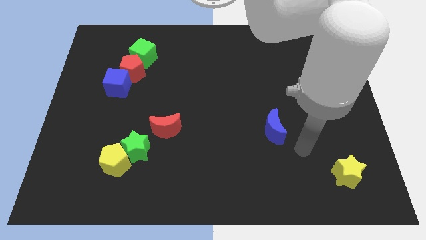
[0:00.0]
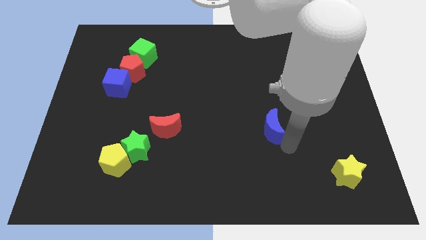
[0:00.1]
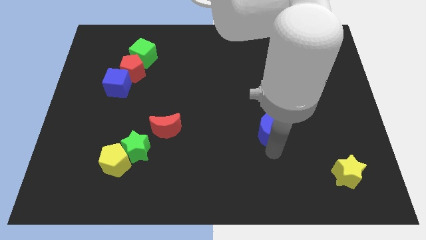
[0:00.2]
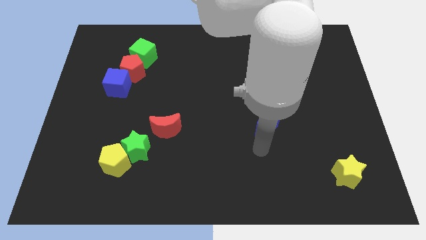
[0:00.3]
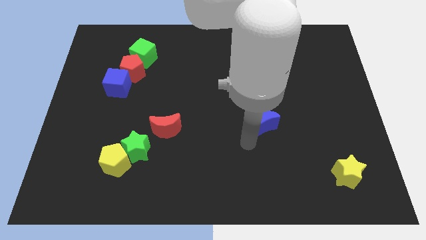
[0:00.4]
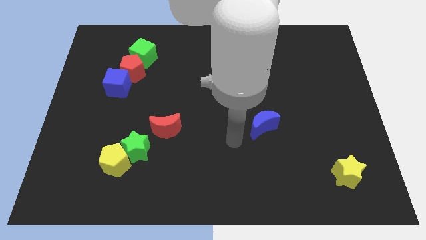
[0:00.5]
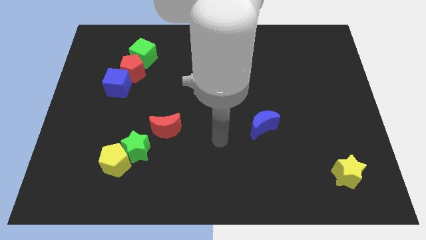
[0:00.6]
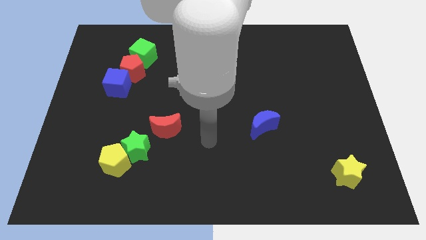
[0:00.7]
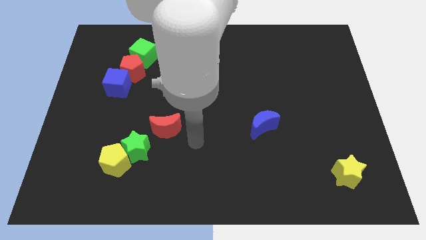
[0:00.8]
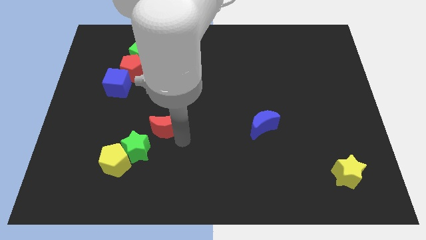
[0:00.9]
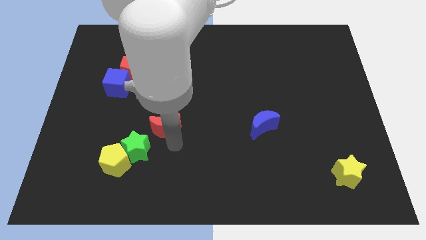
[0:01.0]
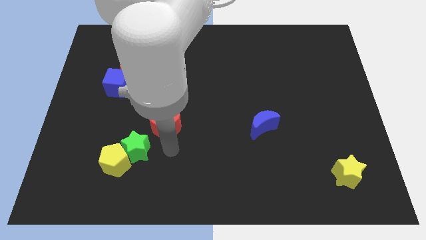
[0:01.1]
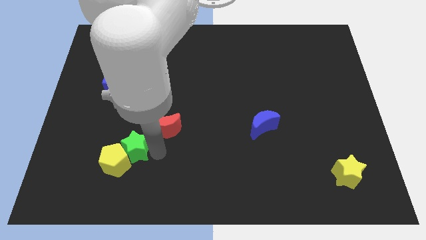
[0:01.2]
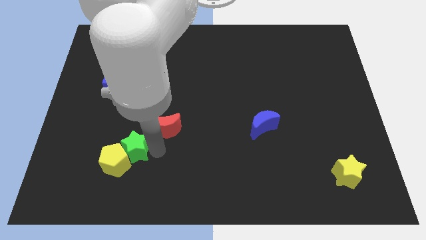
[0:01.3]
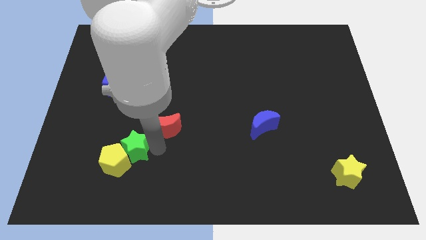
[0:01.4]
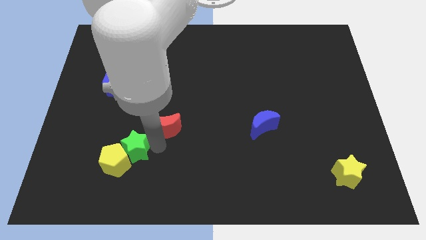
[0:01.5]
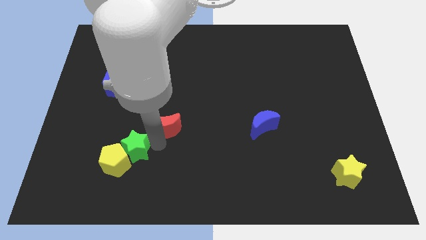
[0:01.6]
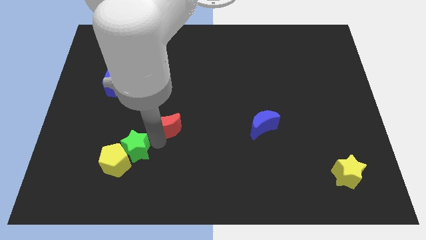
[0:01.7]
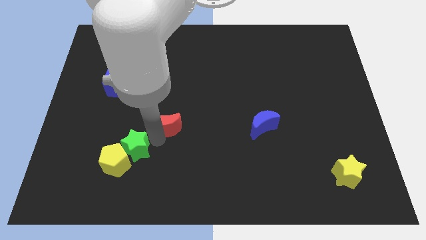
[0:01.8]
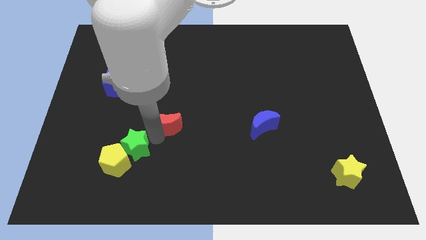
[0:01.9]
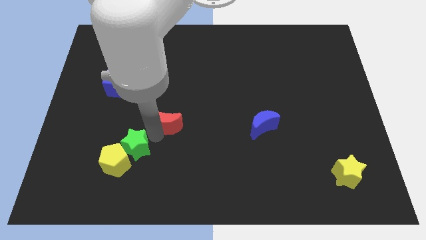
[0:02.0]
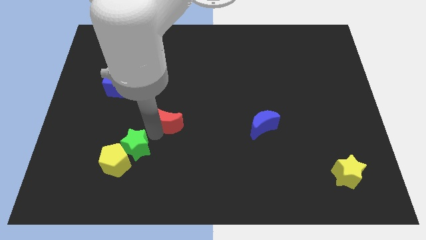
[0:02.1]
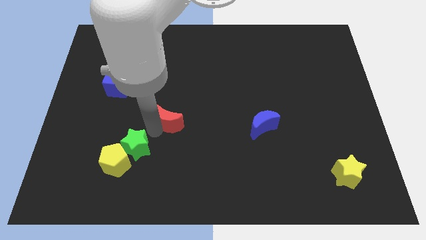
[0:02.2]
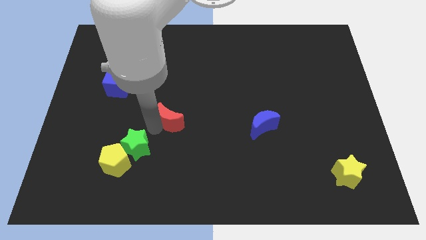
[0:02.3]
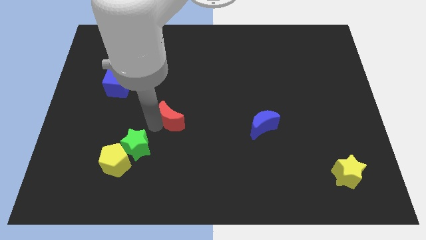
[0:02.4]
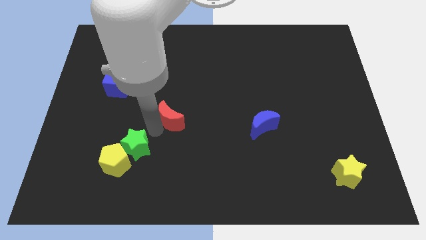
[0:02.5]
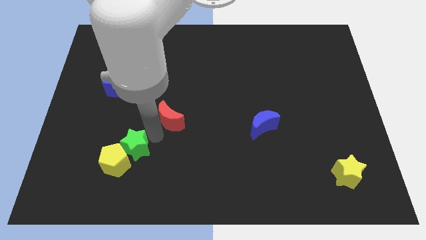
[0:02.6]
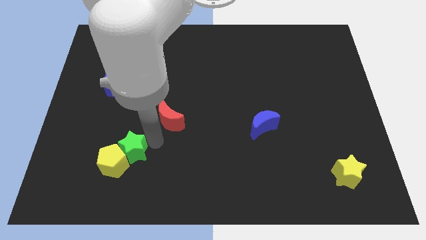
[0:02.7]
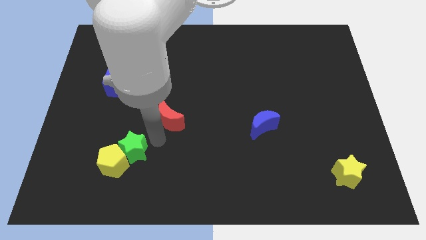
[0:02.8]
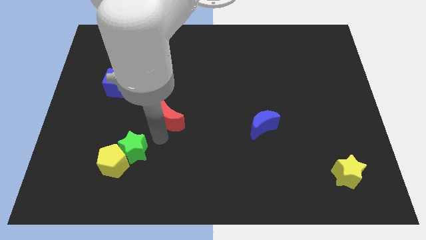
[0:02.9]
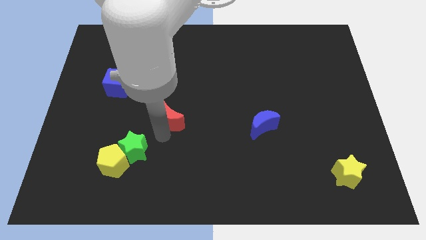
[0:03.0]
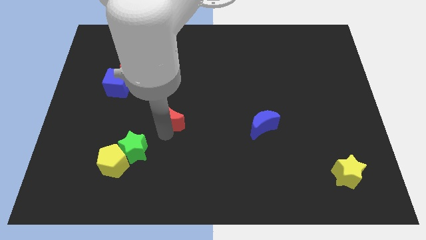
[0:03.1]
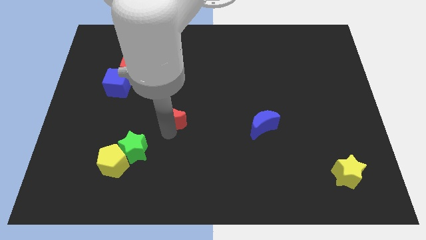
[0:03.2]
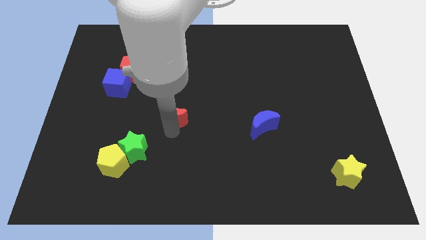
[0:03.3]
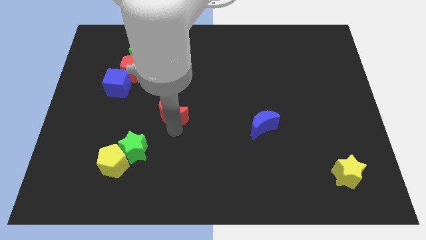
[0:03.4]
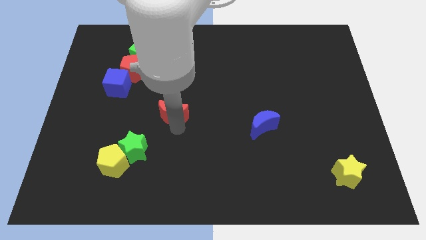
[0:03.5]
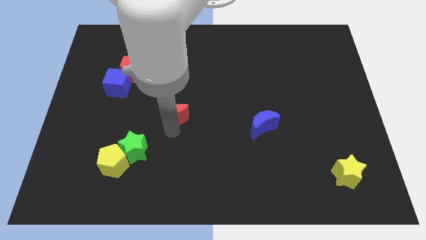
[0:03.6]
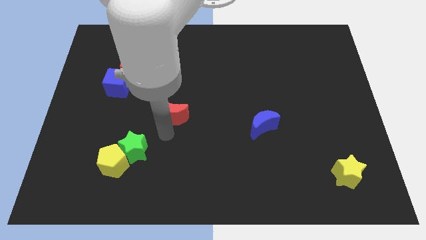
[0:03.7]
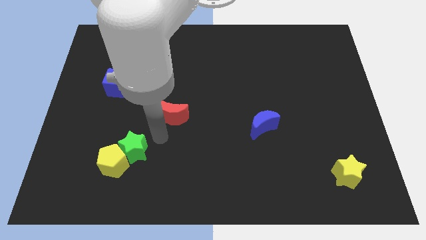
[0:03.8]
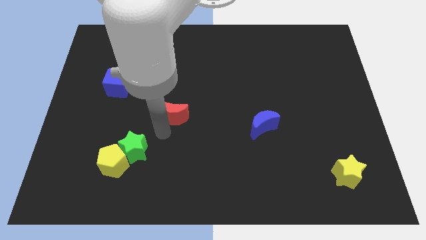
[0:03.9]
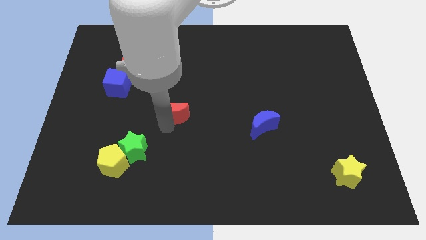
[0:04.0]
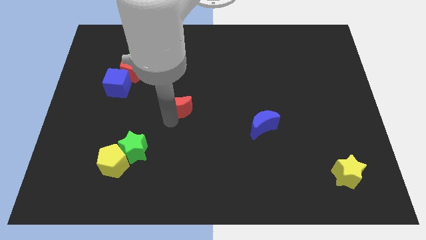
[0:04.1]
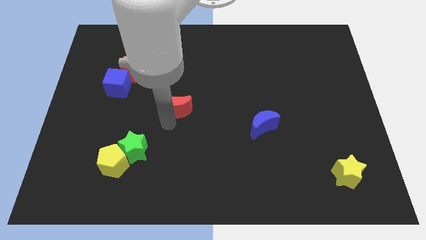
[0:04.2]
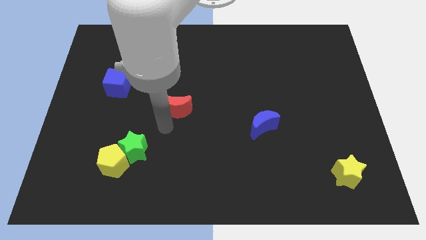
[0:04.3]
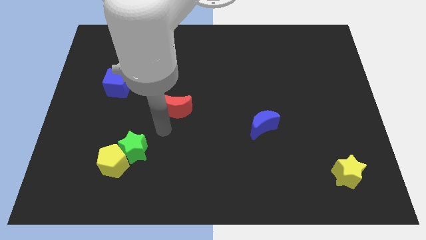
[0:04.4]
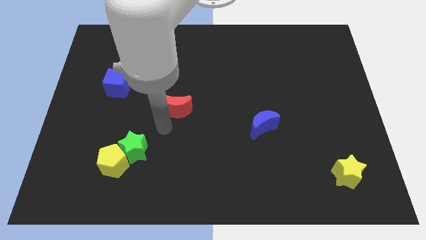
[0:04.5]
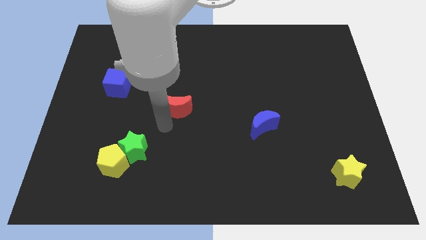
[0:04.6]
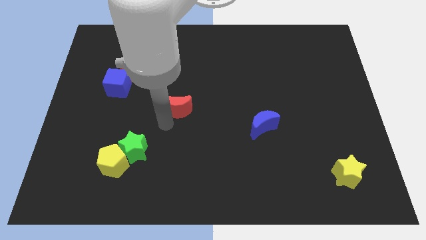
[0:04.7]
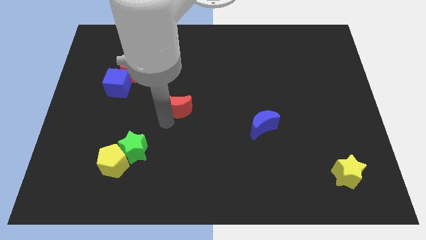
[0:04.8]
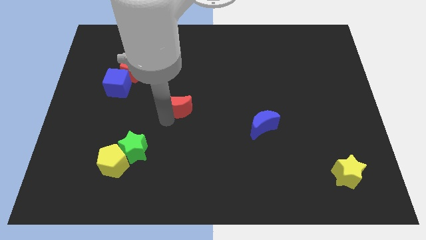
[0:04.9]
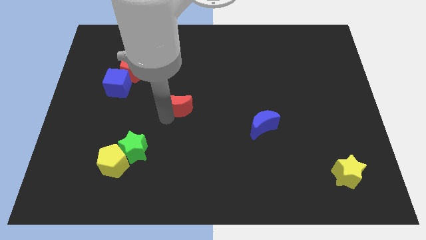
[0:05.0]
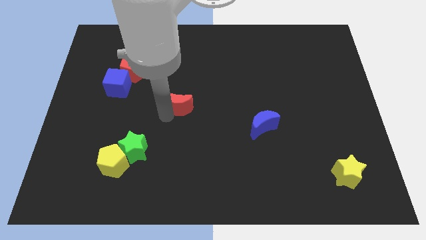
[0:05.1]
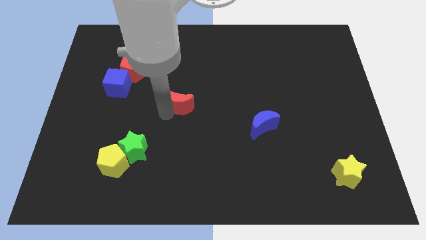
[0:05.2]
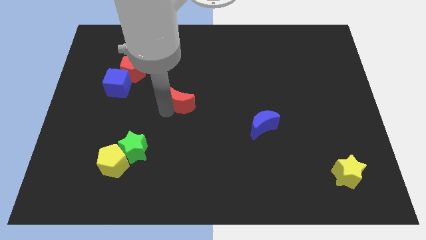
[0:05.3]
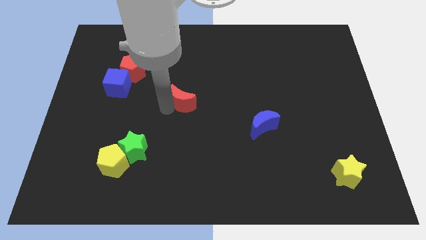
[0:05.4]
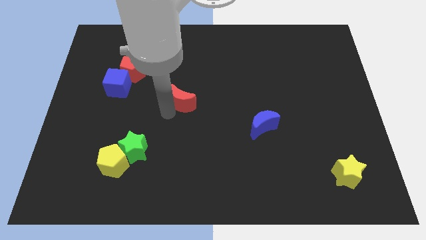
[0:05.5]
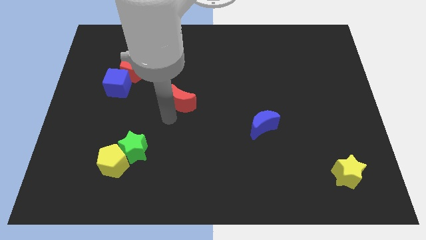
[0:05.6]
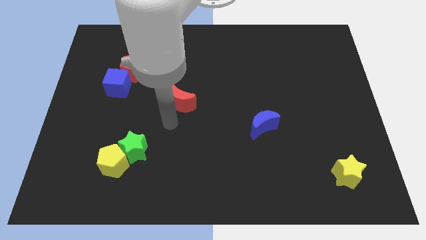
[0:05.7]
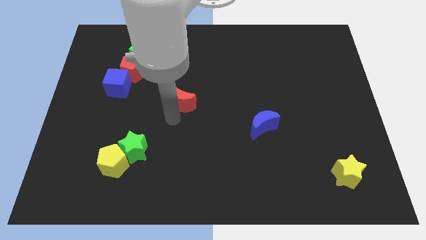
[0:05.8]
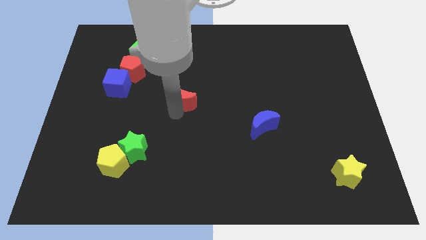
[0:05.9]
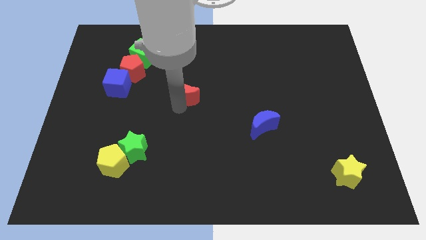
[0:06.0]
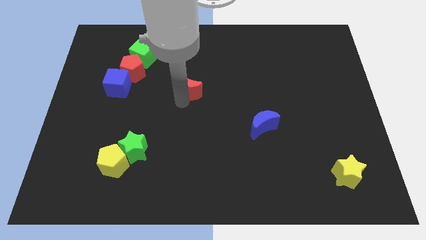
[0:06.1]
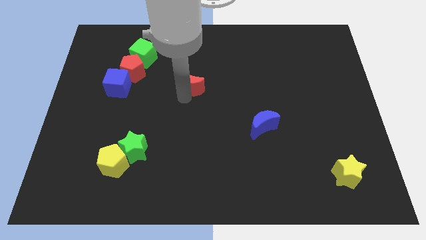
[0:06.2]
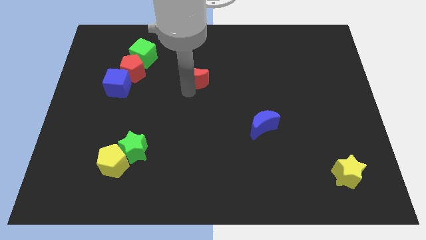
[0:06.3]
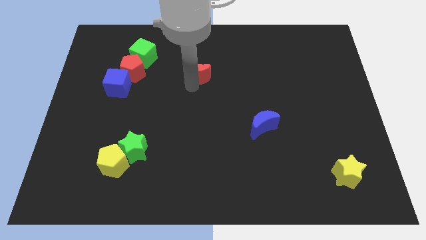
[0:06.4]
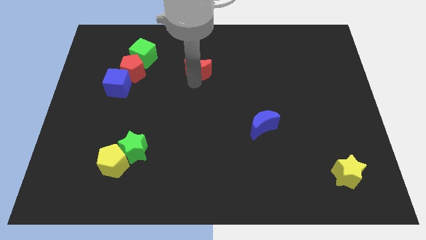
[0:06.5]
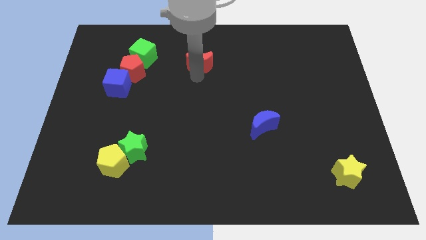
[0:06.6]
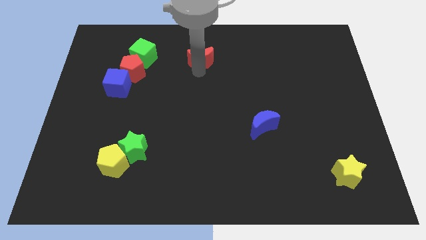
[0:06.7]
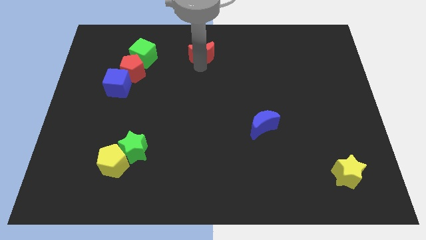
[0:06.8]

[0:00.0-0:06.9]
push the red moon to the top

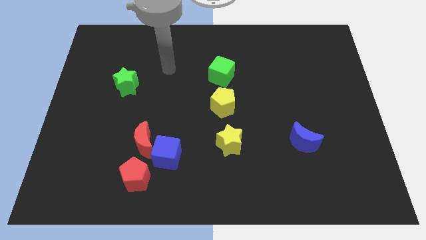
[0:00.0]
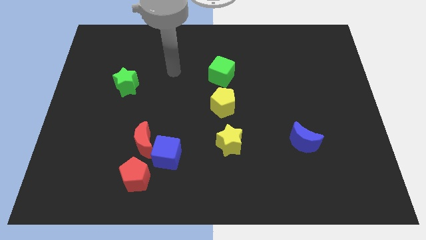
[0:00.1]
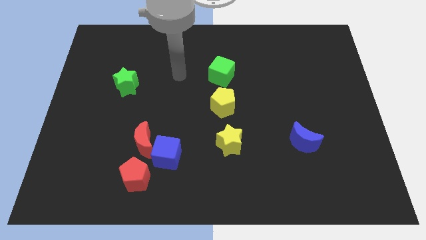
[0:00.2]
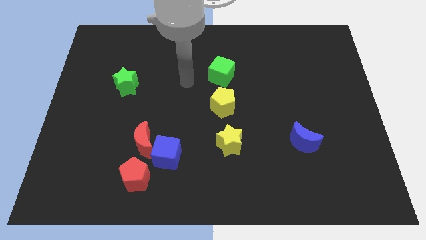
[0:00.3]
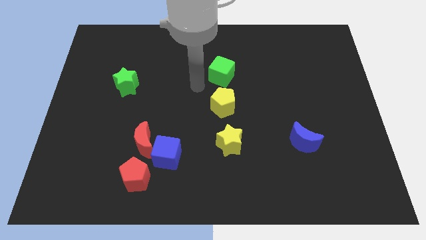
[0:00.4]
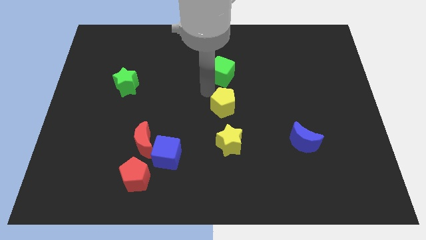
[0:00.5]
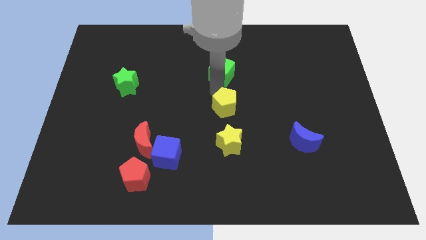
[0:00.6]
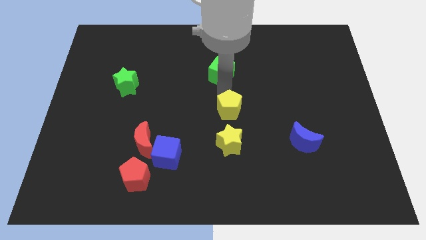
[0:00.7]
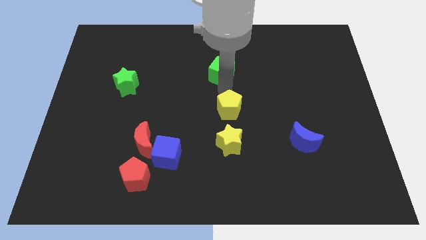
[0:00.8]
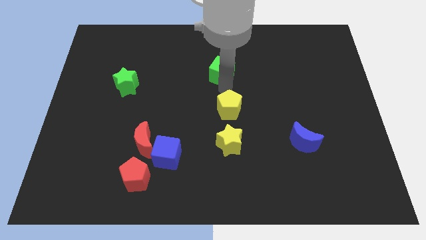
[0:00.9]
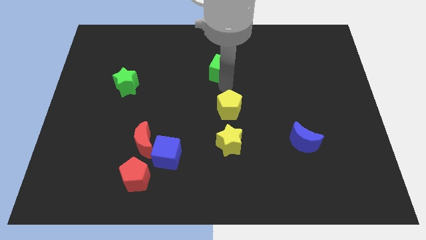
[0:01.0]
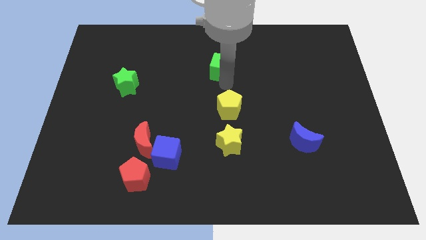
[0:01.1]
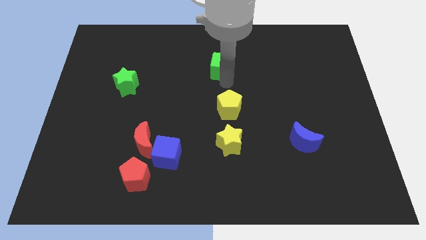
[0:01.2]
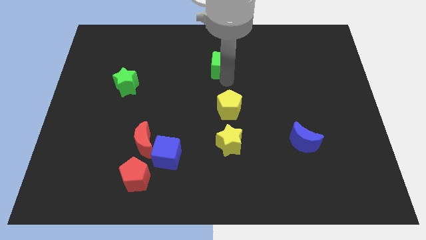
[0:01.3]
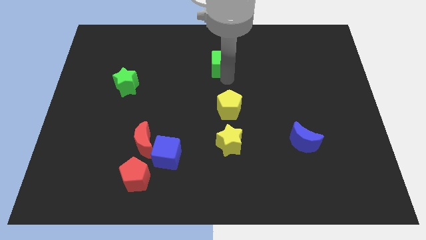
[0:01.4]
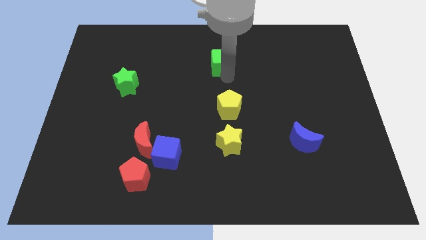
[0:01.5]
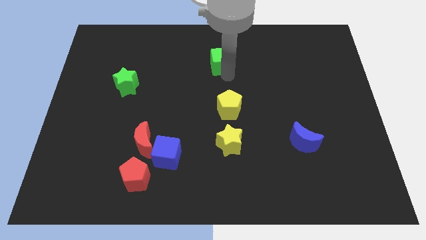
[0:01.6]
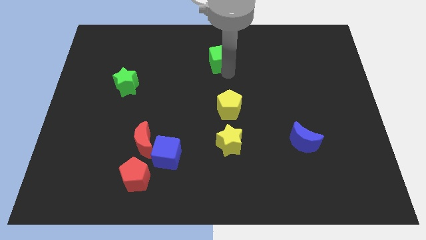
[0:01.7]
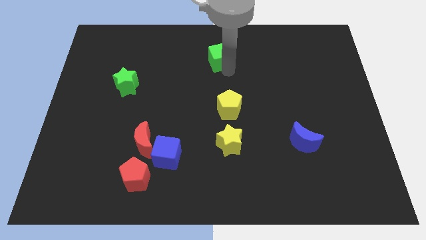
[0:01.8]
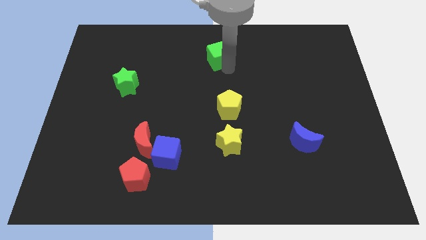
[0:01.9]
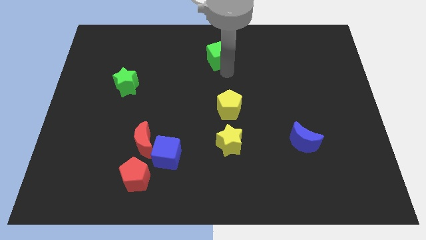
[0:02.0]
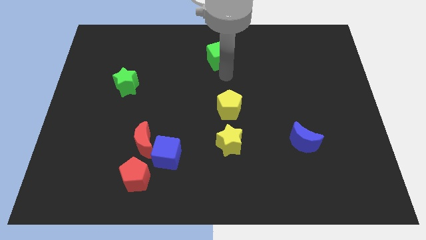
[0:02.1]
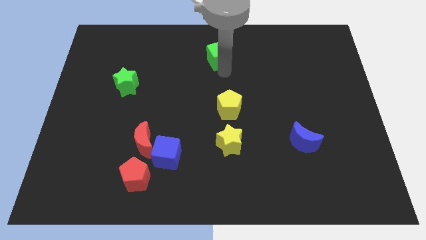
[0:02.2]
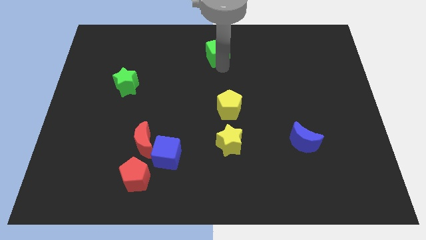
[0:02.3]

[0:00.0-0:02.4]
slide the green cube to the top side
